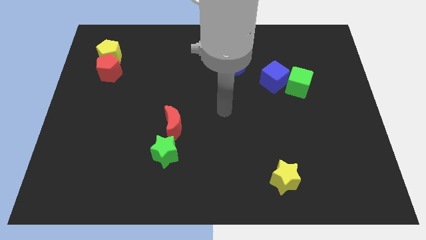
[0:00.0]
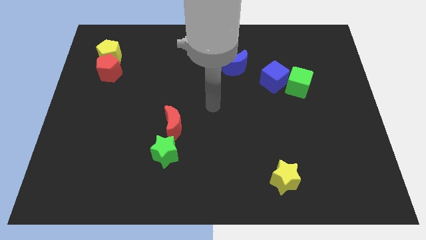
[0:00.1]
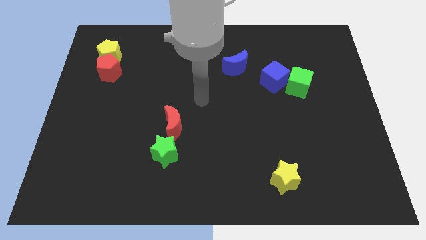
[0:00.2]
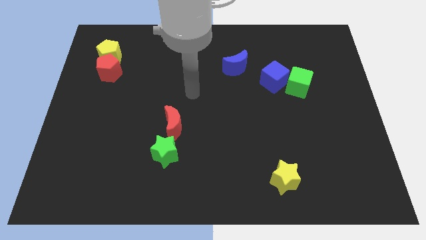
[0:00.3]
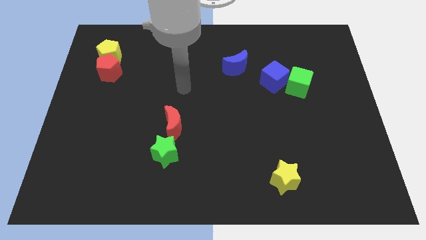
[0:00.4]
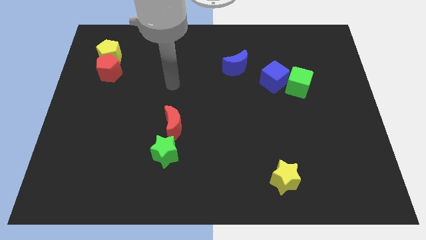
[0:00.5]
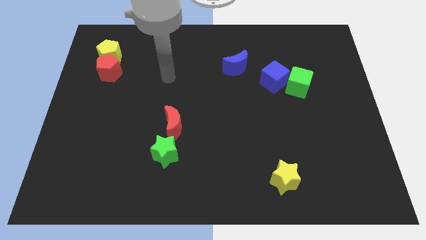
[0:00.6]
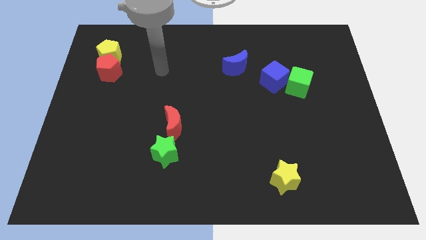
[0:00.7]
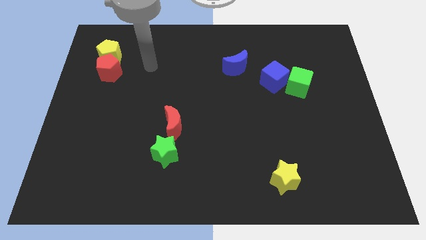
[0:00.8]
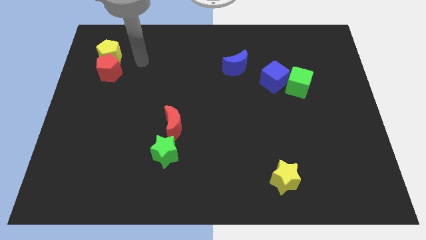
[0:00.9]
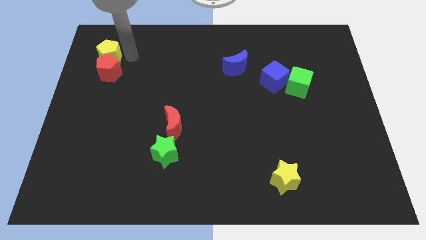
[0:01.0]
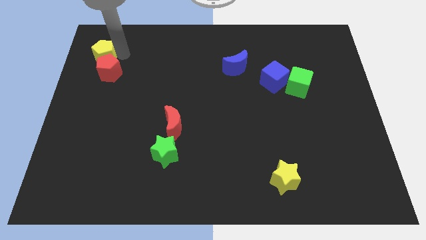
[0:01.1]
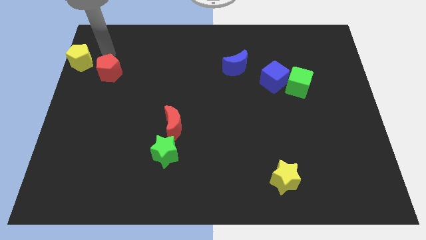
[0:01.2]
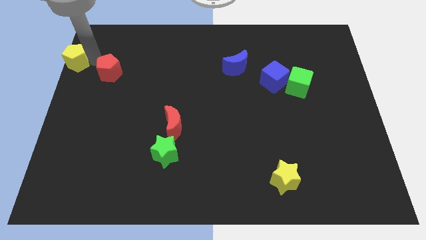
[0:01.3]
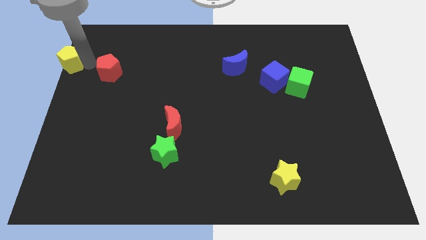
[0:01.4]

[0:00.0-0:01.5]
pull the red pentagon apart from the yellow pentagon

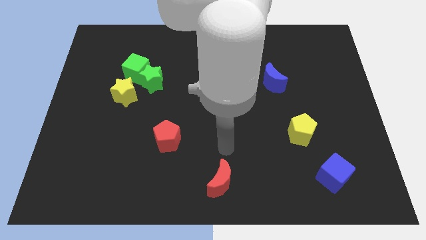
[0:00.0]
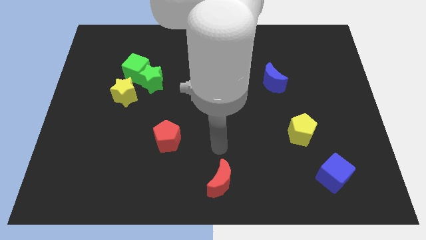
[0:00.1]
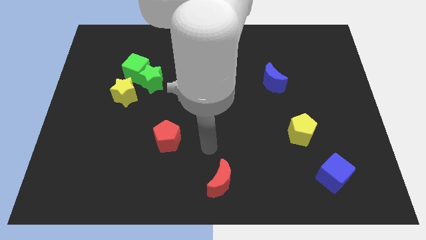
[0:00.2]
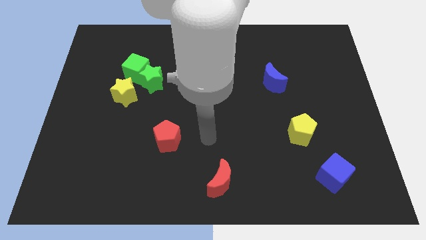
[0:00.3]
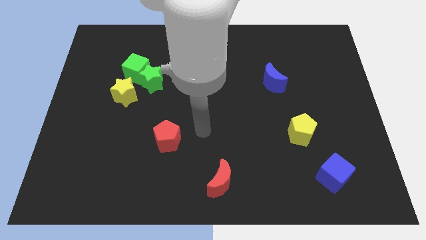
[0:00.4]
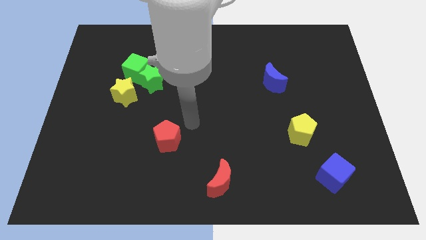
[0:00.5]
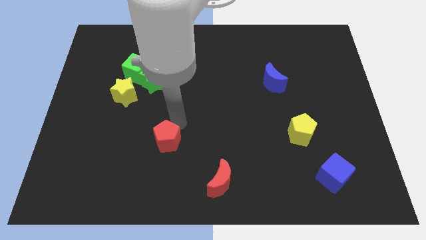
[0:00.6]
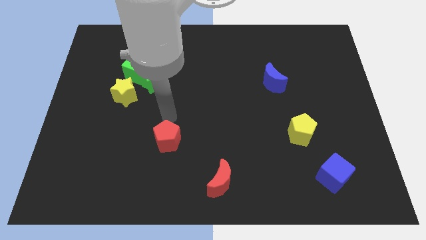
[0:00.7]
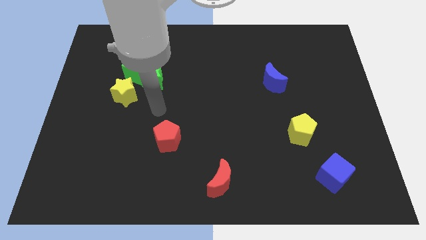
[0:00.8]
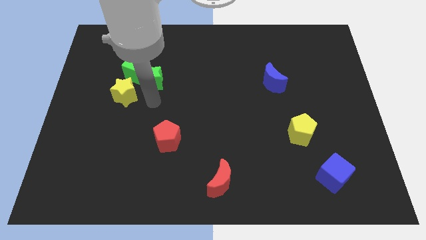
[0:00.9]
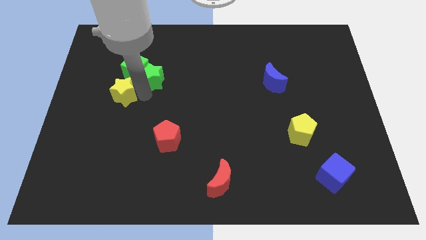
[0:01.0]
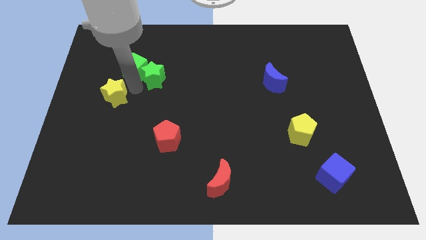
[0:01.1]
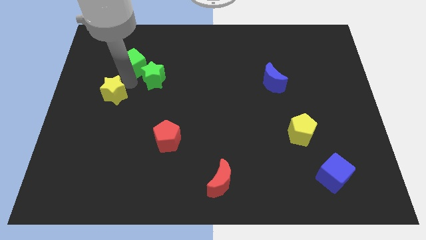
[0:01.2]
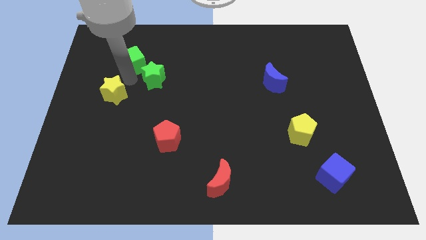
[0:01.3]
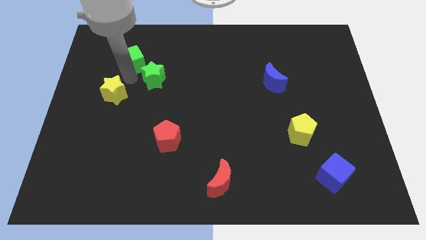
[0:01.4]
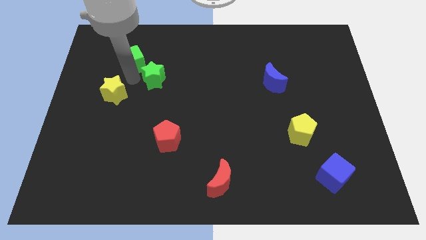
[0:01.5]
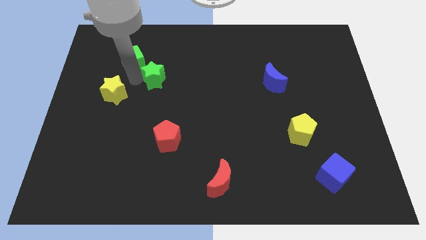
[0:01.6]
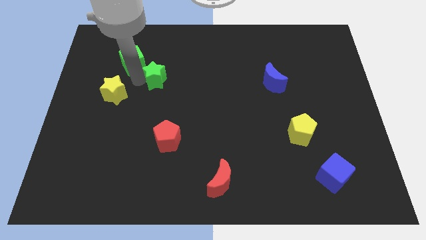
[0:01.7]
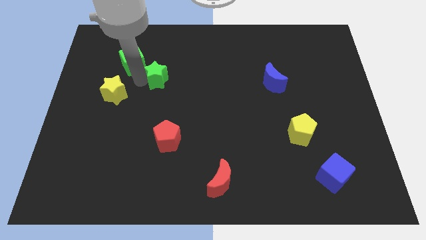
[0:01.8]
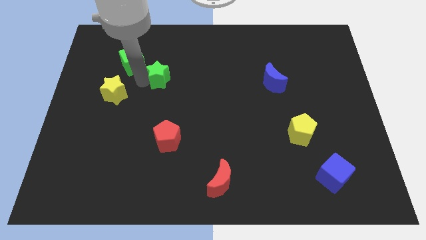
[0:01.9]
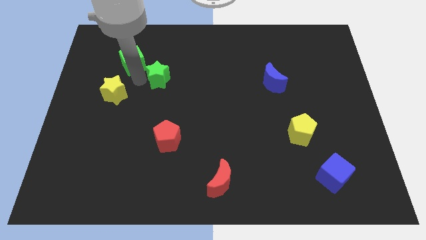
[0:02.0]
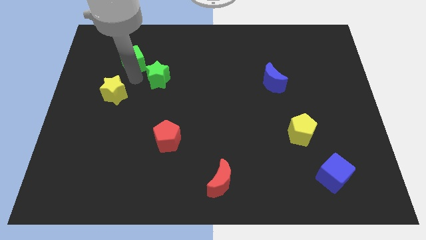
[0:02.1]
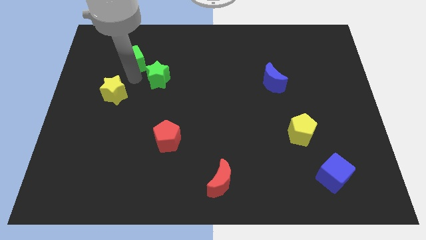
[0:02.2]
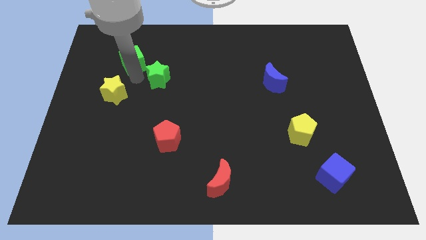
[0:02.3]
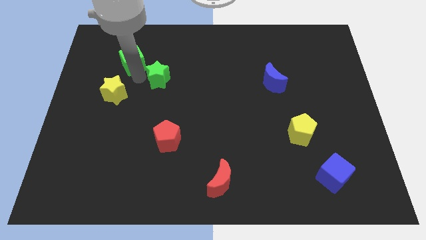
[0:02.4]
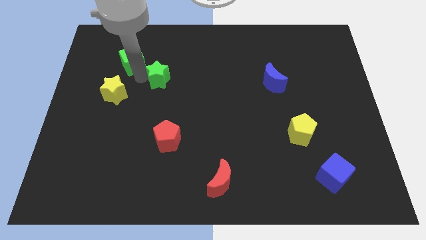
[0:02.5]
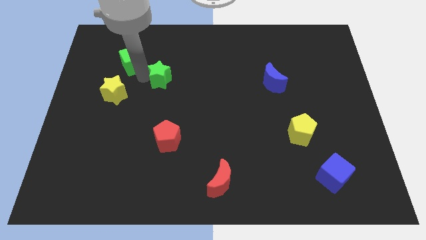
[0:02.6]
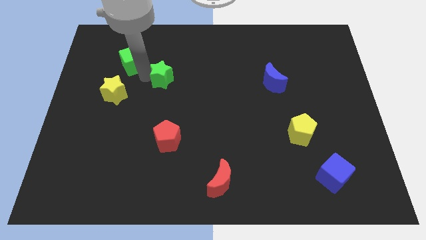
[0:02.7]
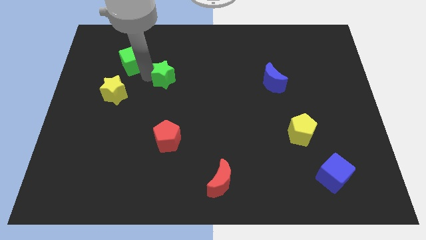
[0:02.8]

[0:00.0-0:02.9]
pull the green star apart from the green cube and yellow star

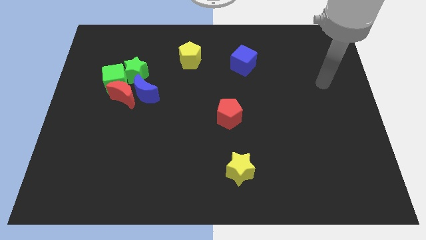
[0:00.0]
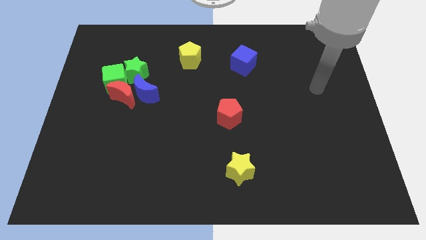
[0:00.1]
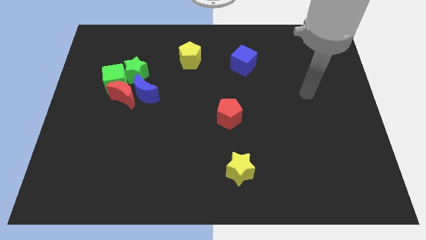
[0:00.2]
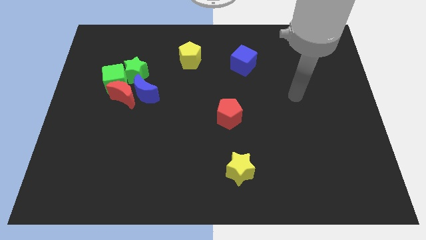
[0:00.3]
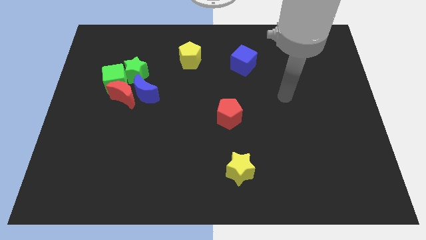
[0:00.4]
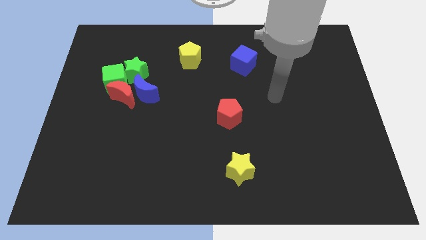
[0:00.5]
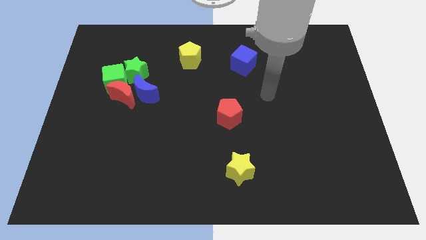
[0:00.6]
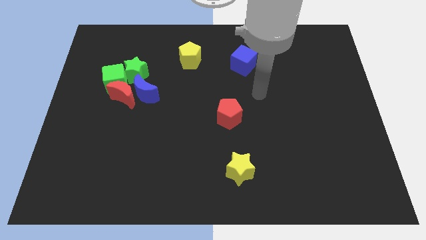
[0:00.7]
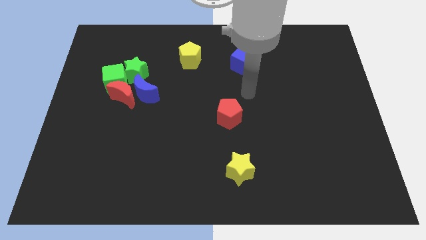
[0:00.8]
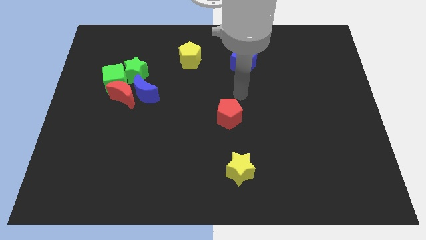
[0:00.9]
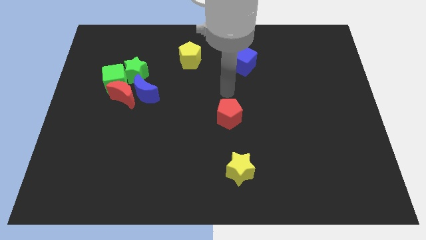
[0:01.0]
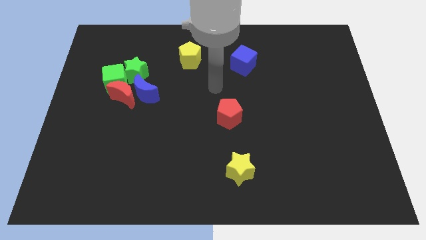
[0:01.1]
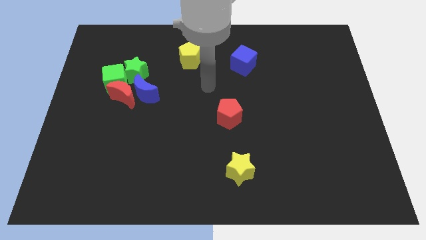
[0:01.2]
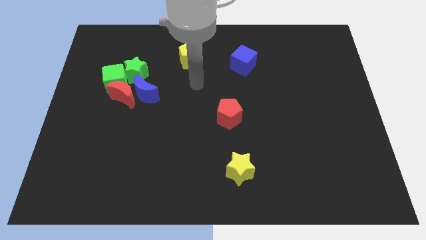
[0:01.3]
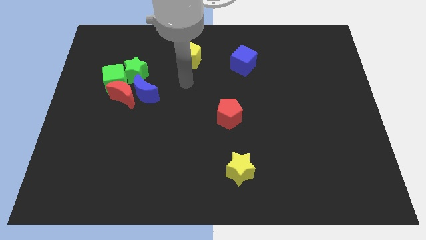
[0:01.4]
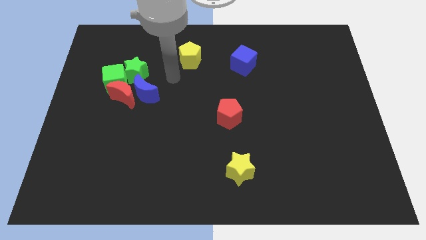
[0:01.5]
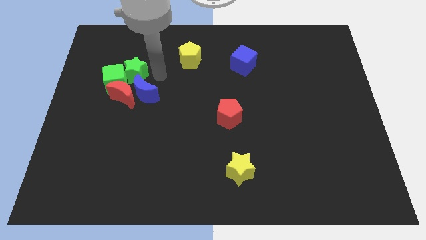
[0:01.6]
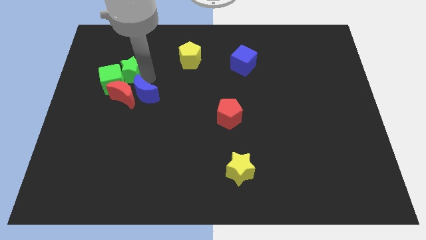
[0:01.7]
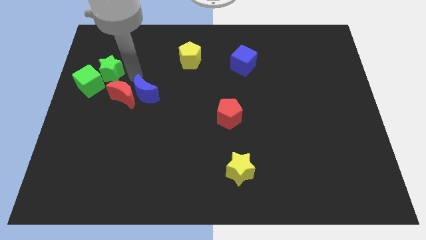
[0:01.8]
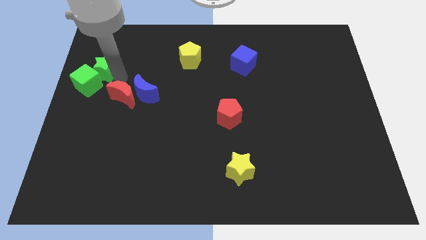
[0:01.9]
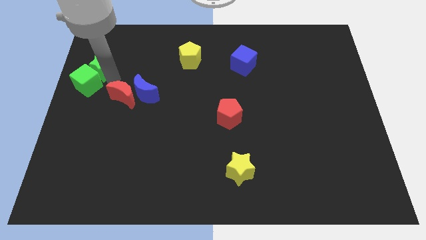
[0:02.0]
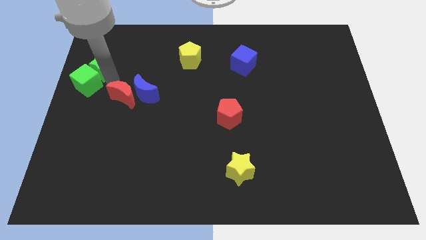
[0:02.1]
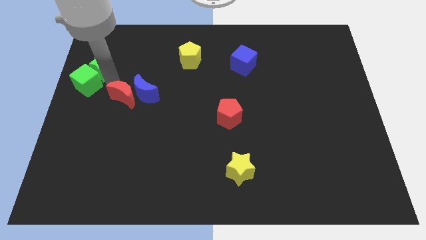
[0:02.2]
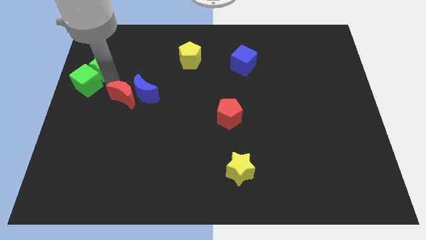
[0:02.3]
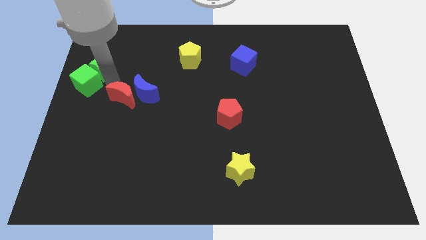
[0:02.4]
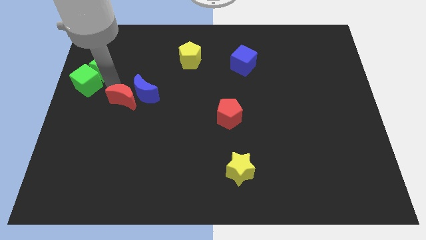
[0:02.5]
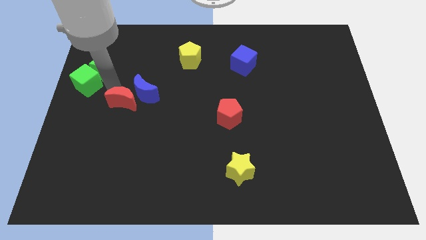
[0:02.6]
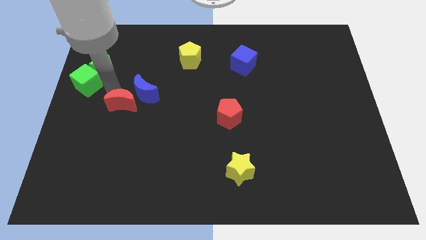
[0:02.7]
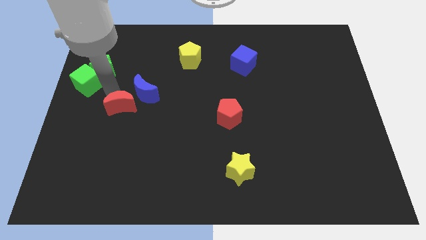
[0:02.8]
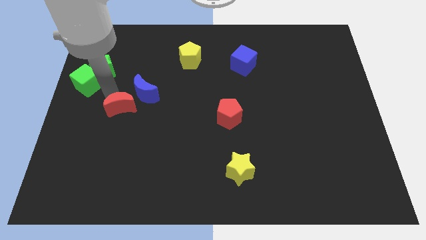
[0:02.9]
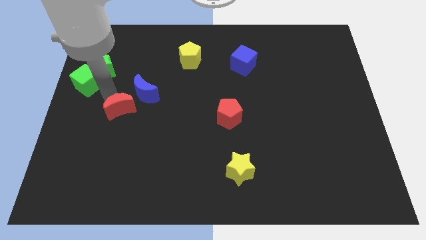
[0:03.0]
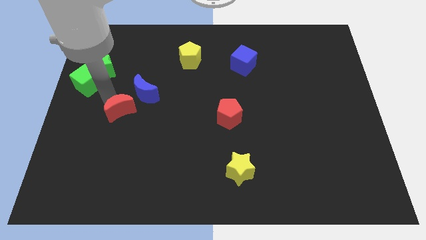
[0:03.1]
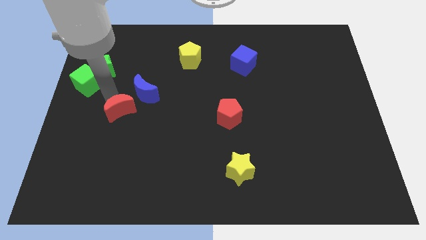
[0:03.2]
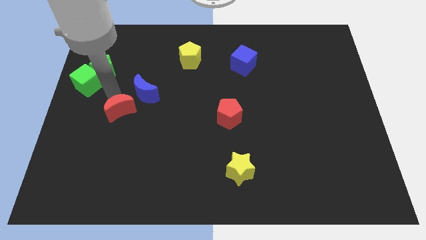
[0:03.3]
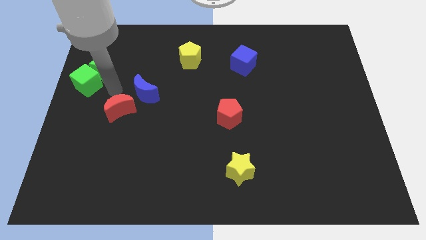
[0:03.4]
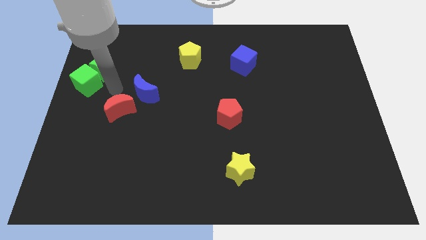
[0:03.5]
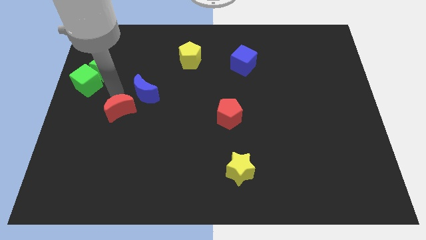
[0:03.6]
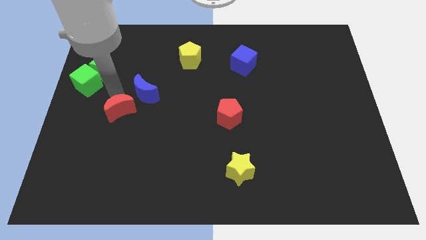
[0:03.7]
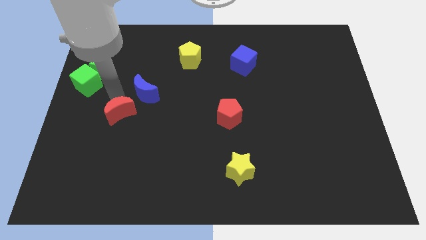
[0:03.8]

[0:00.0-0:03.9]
separate the red moon from the blue moon, green cube, and green star

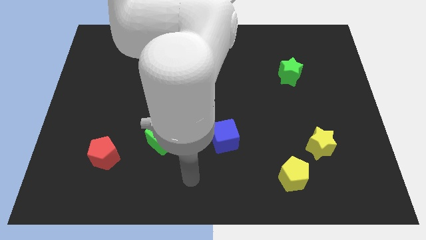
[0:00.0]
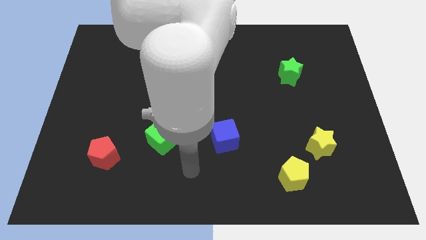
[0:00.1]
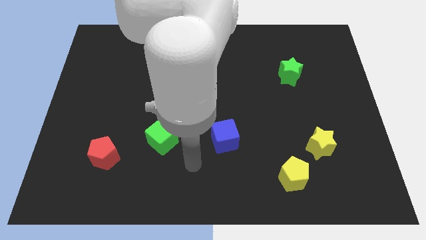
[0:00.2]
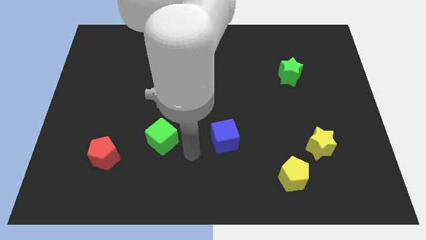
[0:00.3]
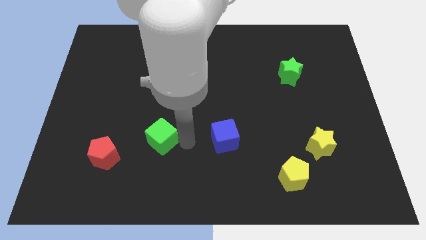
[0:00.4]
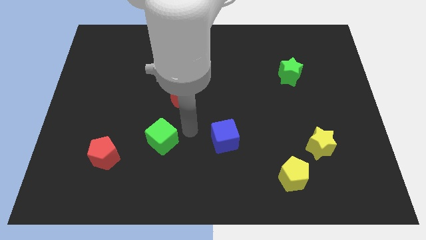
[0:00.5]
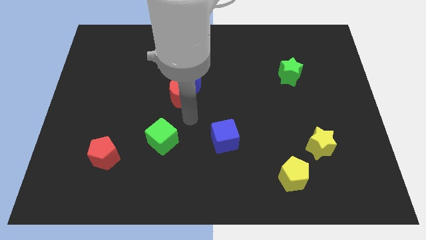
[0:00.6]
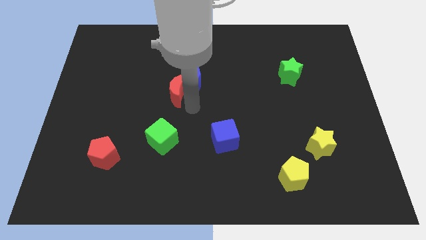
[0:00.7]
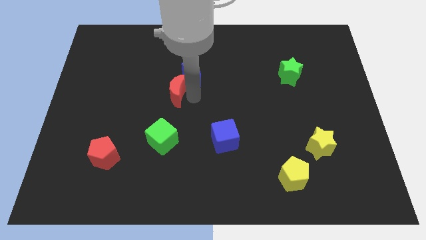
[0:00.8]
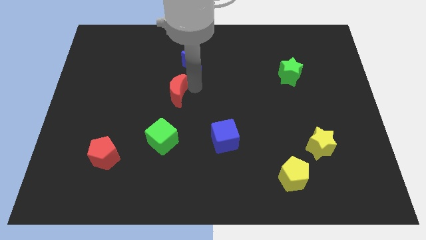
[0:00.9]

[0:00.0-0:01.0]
pull the red moon apart from the blue moon

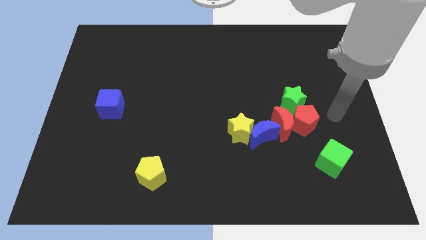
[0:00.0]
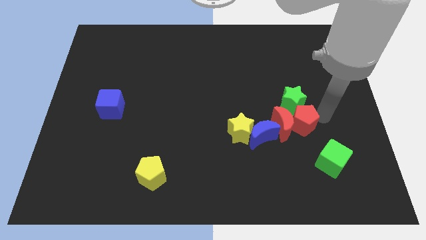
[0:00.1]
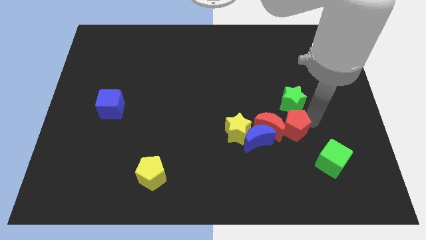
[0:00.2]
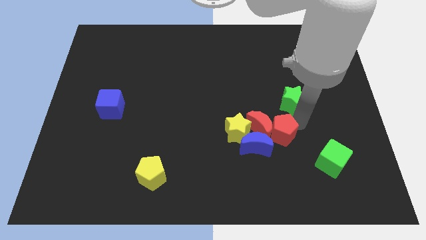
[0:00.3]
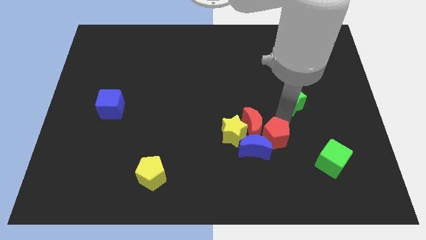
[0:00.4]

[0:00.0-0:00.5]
move the green star away from the red pentagon and red moon
